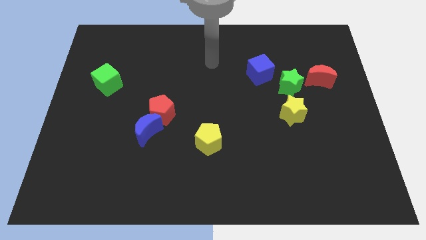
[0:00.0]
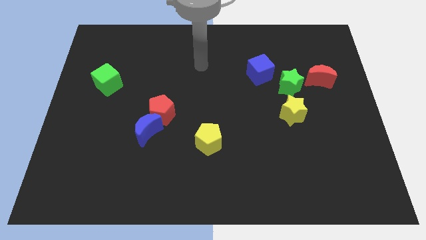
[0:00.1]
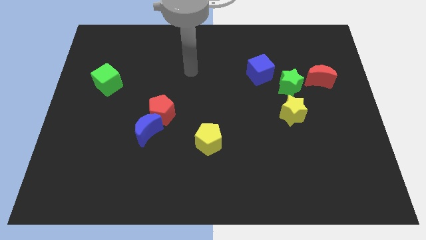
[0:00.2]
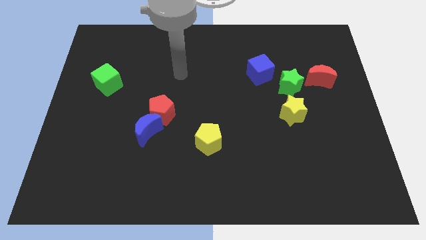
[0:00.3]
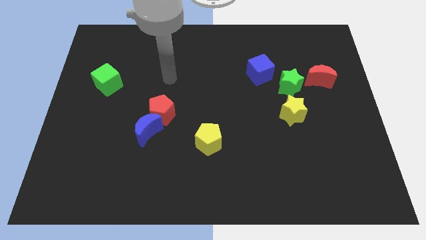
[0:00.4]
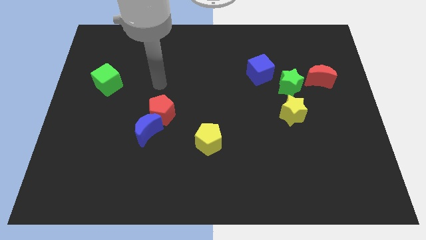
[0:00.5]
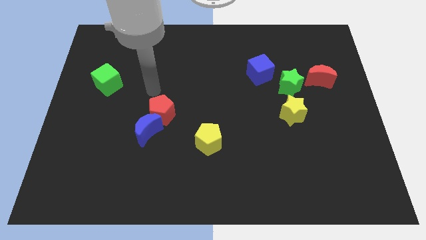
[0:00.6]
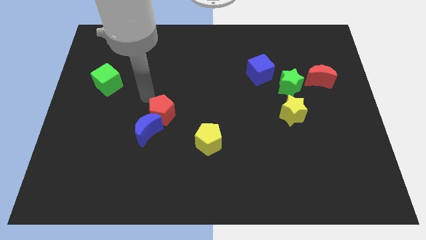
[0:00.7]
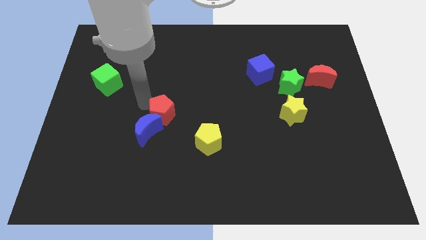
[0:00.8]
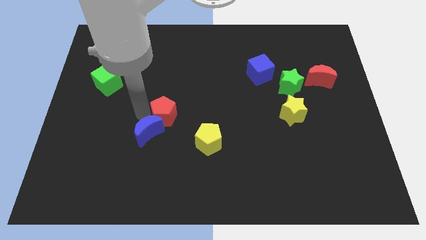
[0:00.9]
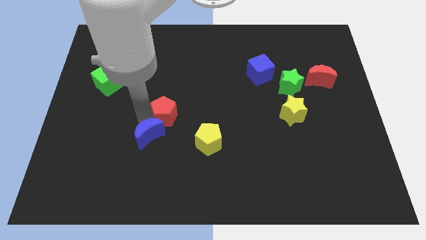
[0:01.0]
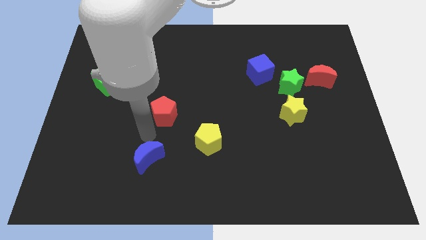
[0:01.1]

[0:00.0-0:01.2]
separate the red pentagon from the blue moon

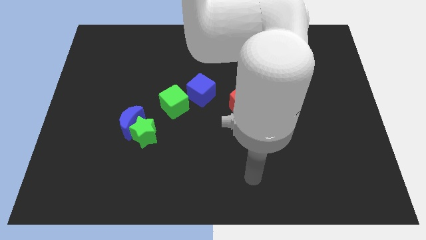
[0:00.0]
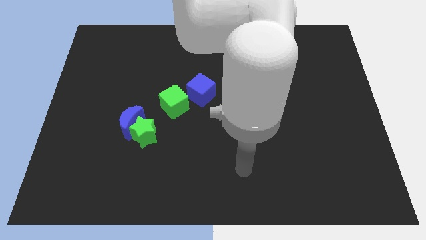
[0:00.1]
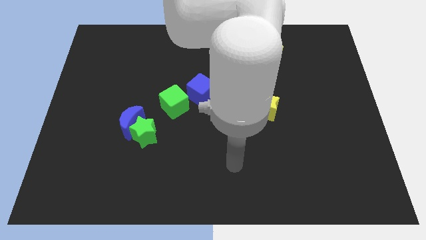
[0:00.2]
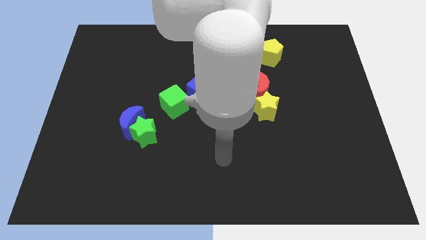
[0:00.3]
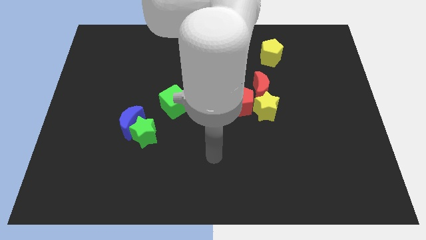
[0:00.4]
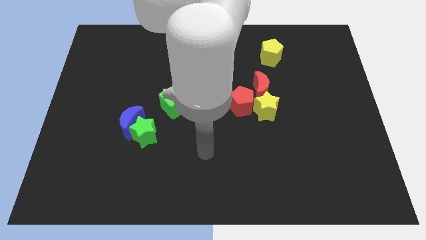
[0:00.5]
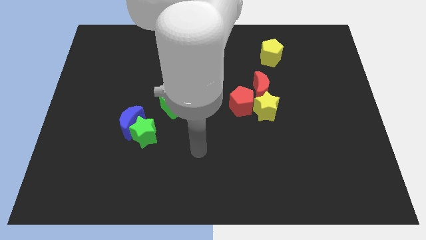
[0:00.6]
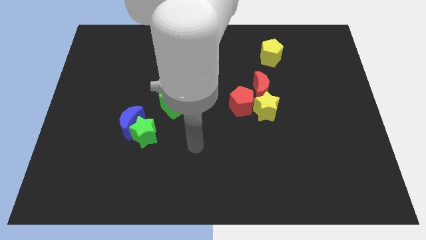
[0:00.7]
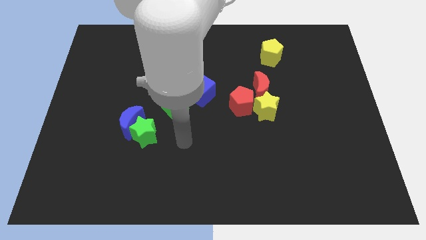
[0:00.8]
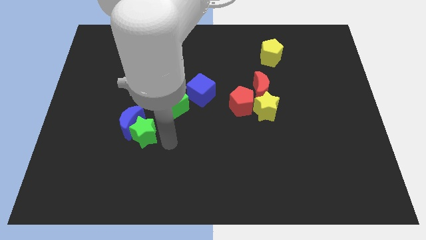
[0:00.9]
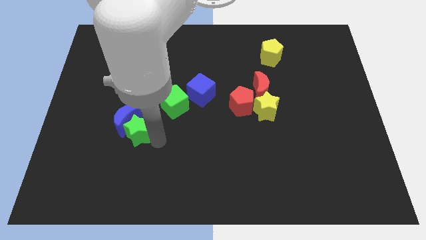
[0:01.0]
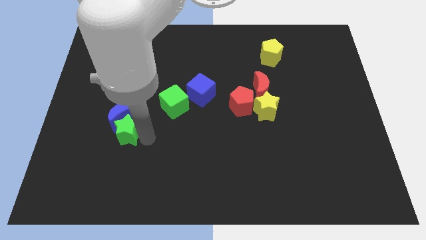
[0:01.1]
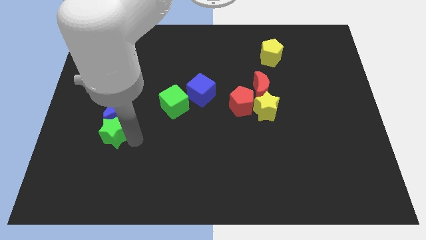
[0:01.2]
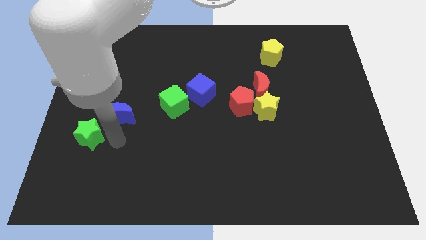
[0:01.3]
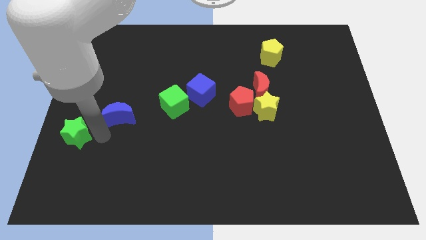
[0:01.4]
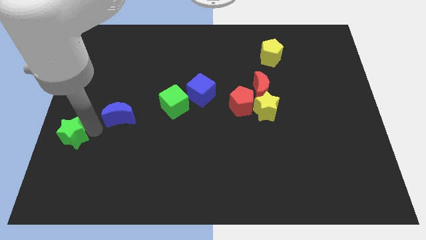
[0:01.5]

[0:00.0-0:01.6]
separate the blue moon from the green star

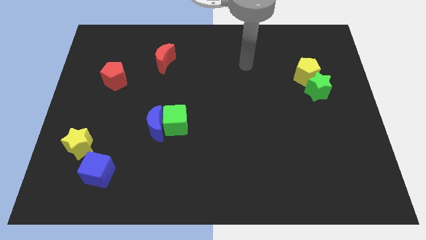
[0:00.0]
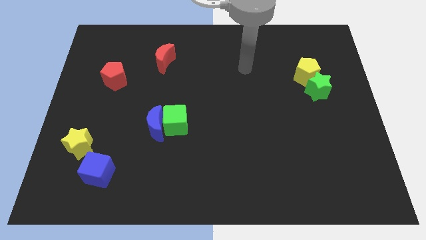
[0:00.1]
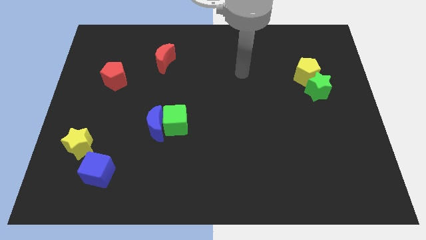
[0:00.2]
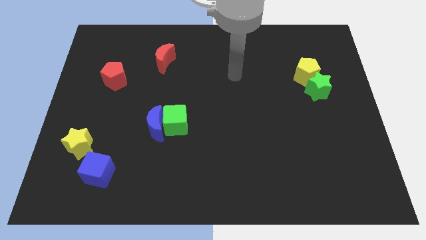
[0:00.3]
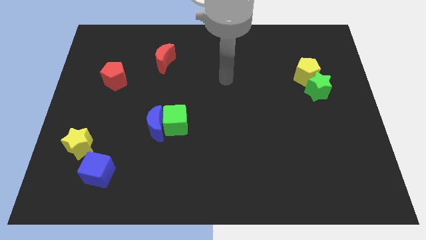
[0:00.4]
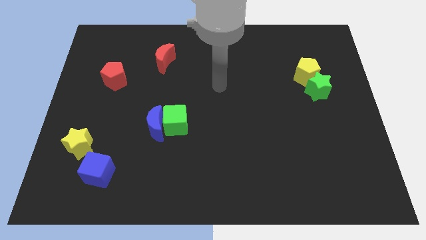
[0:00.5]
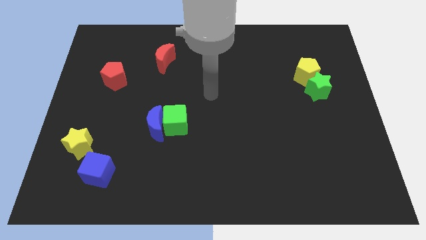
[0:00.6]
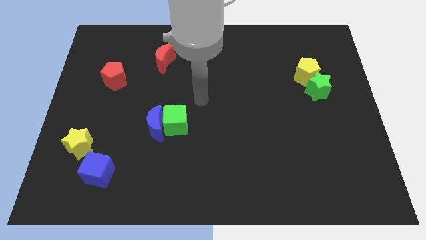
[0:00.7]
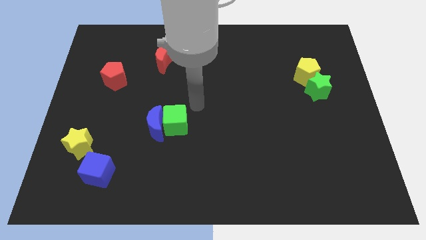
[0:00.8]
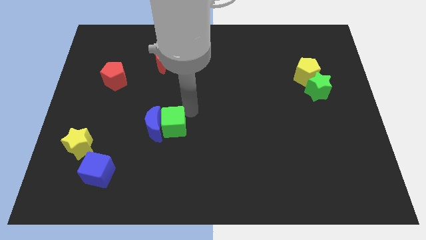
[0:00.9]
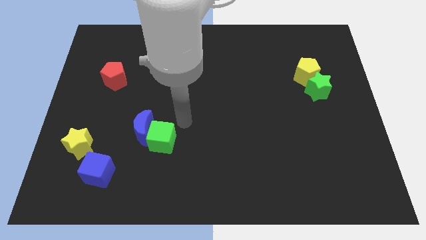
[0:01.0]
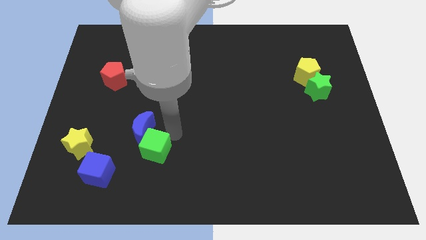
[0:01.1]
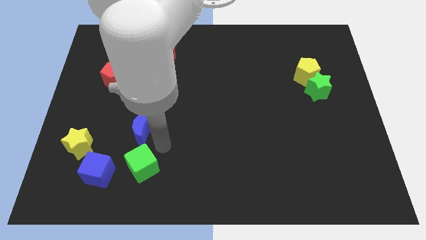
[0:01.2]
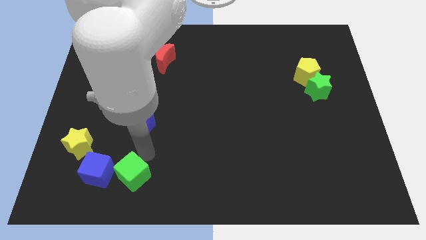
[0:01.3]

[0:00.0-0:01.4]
separate the blue moon from the green cube

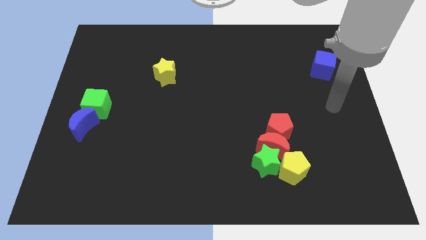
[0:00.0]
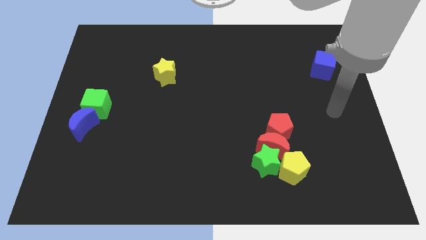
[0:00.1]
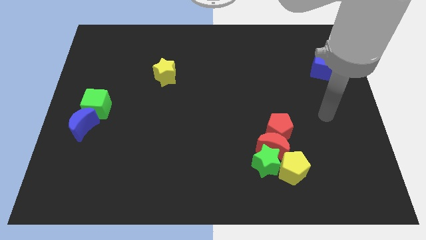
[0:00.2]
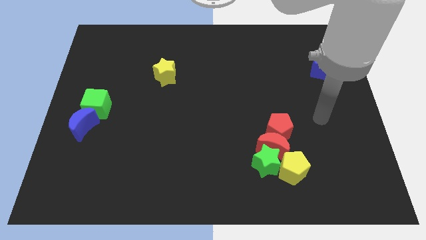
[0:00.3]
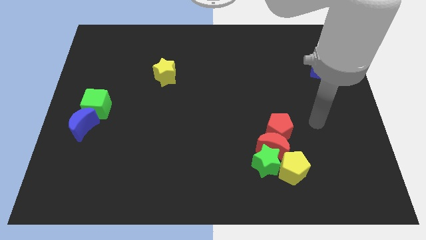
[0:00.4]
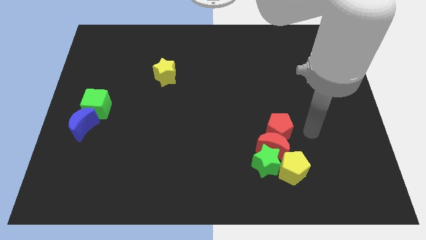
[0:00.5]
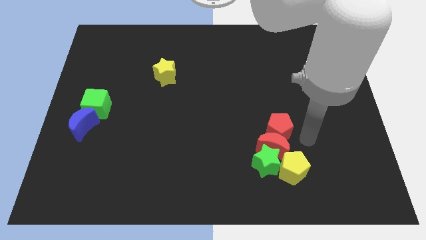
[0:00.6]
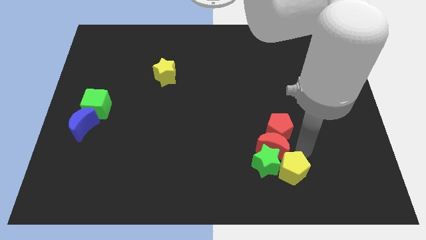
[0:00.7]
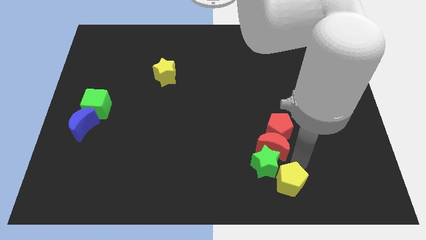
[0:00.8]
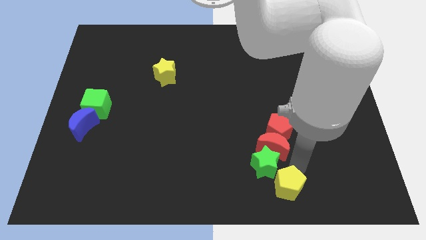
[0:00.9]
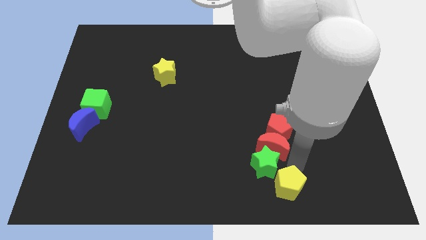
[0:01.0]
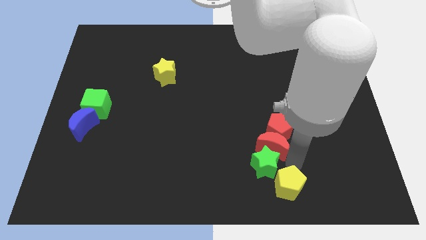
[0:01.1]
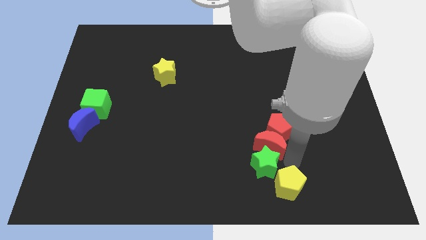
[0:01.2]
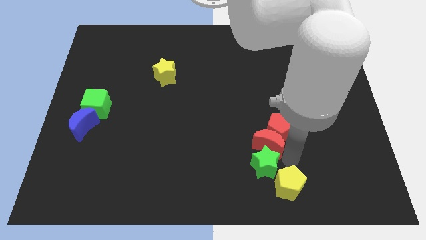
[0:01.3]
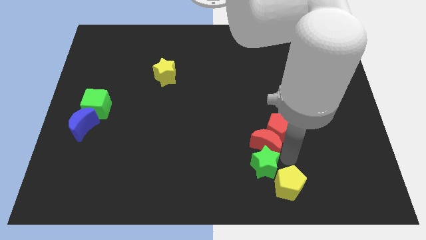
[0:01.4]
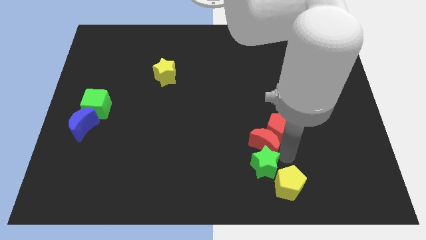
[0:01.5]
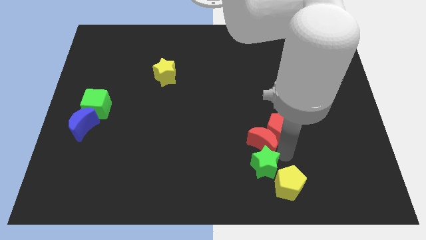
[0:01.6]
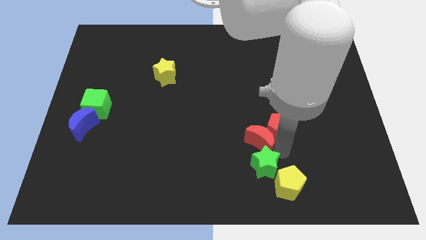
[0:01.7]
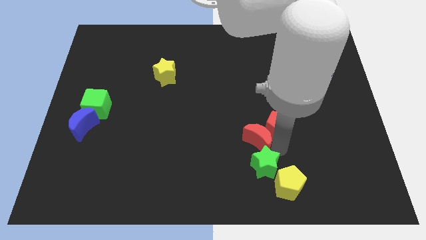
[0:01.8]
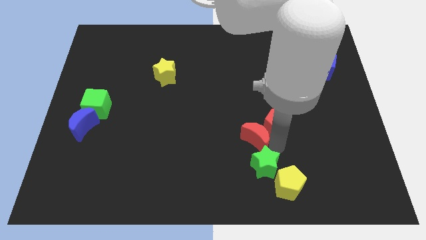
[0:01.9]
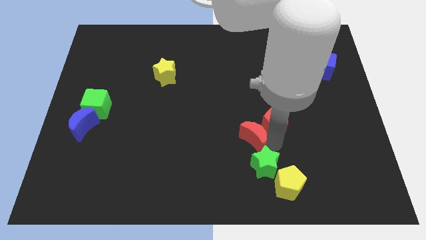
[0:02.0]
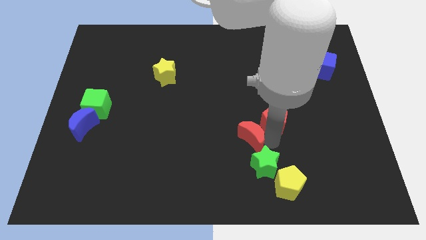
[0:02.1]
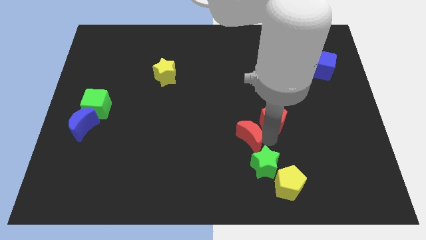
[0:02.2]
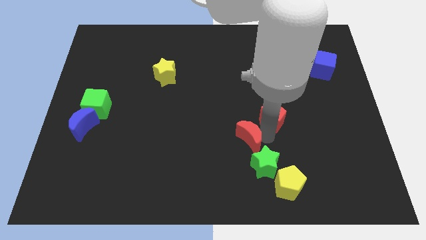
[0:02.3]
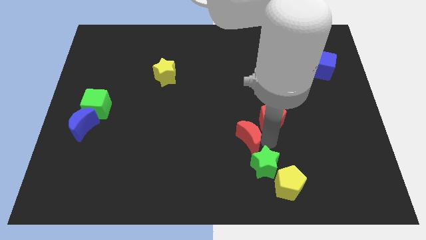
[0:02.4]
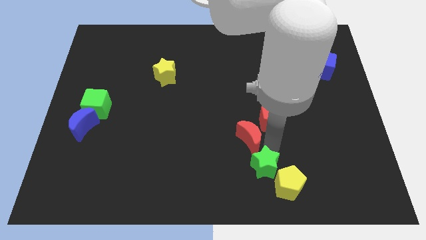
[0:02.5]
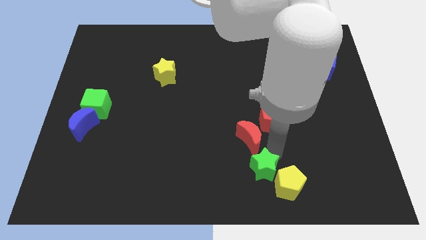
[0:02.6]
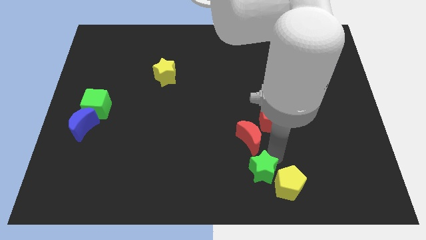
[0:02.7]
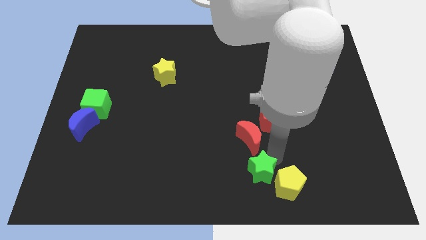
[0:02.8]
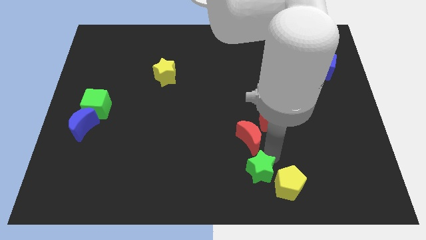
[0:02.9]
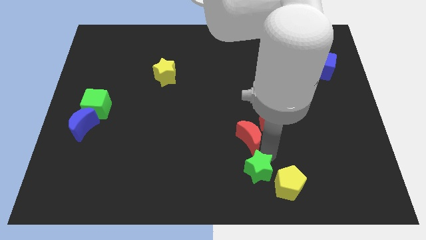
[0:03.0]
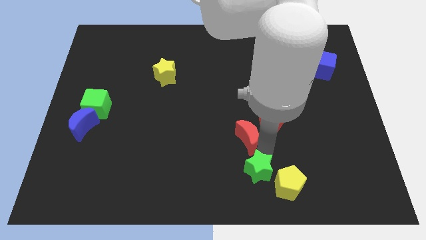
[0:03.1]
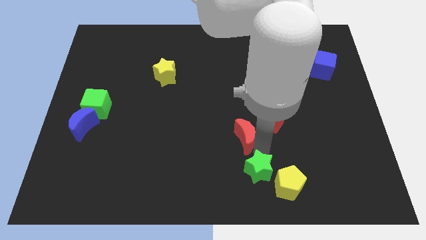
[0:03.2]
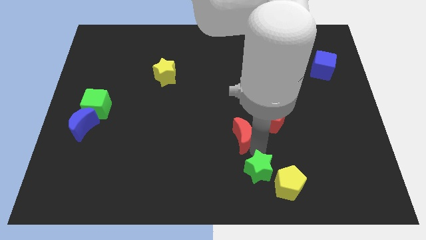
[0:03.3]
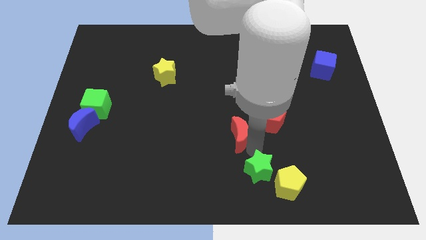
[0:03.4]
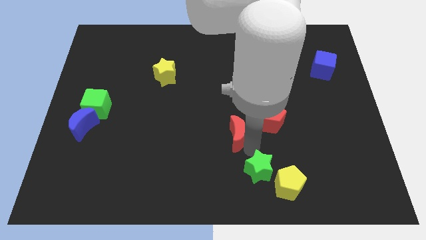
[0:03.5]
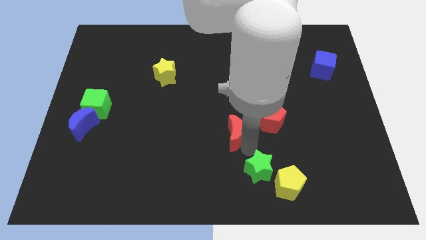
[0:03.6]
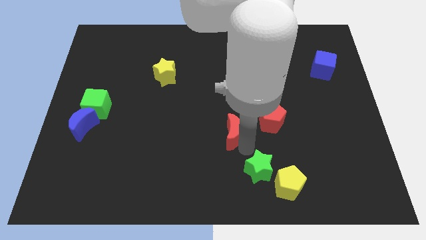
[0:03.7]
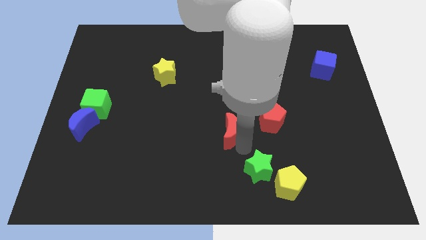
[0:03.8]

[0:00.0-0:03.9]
separate the red moon from the group

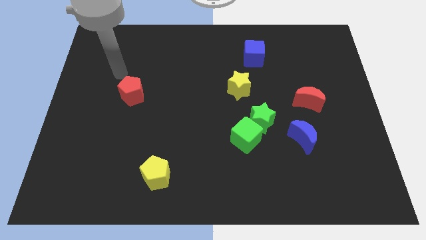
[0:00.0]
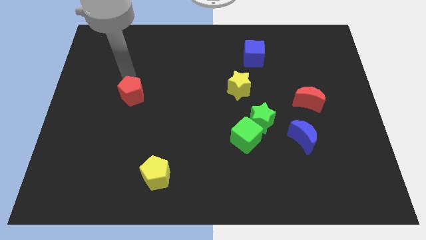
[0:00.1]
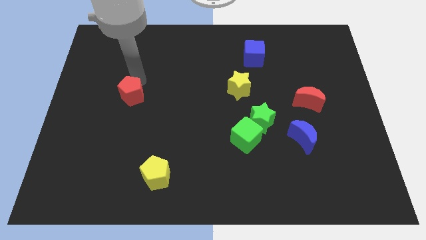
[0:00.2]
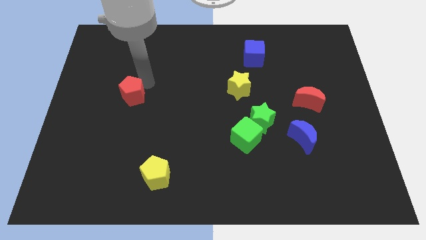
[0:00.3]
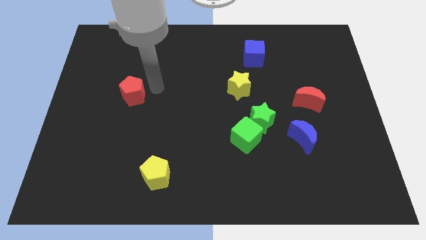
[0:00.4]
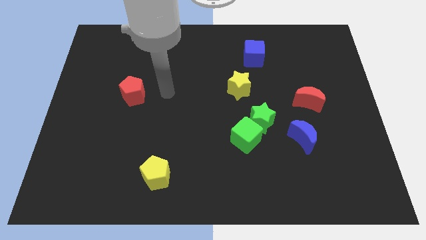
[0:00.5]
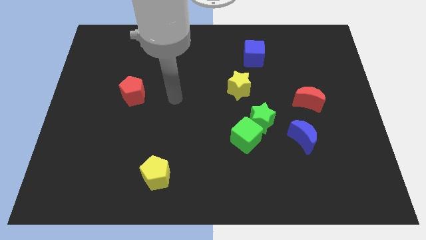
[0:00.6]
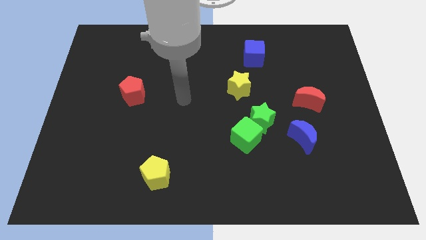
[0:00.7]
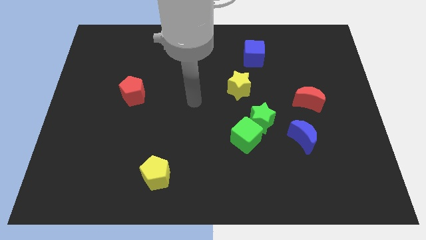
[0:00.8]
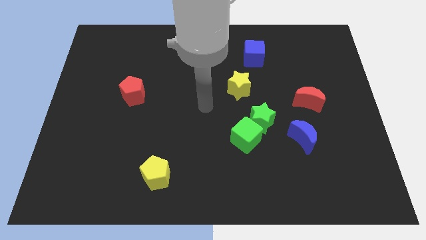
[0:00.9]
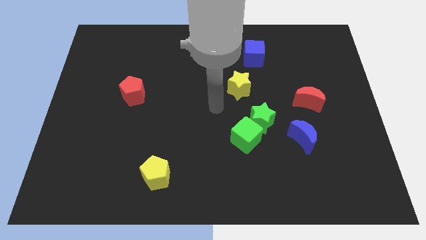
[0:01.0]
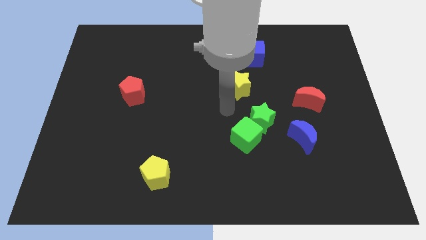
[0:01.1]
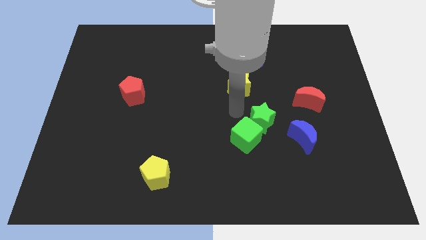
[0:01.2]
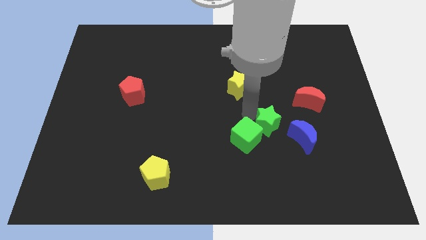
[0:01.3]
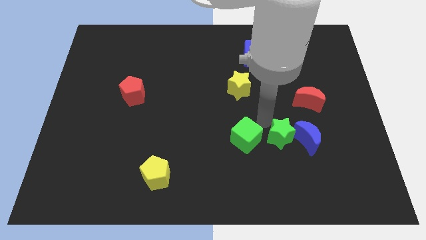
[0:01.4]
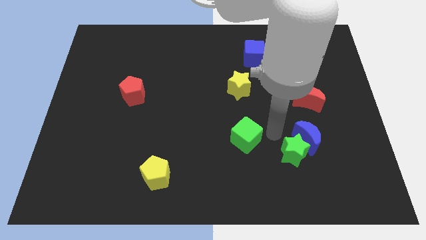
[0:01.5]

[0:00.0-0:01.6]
pull the green cube apart from the green star
